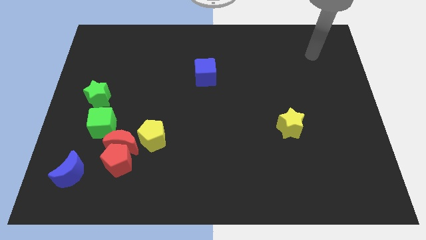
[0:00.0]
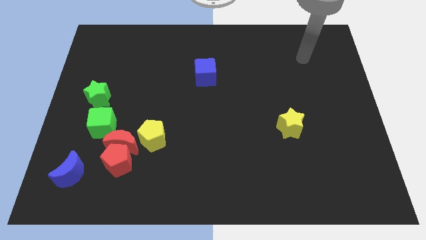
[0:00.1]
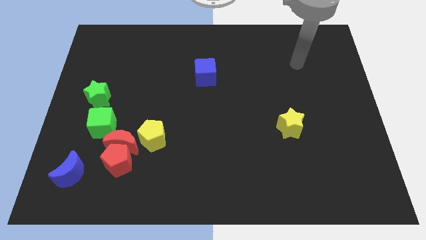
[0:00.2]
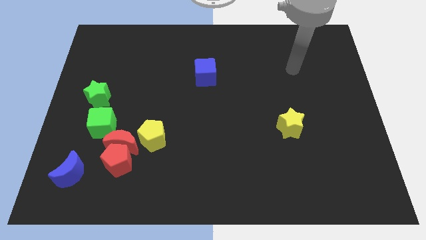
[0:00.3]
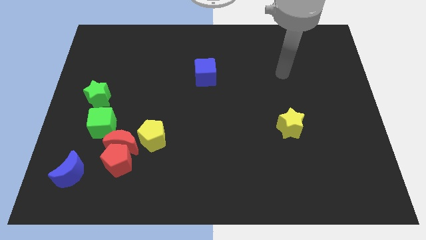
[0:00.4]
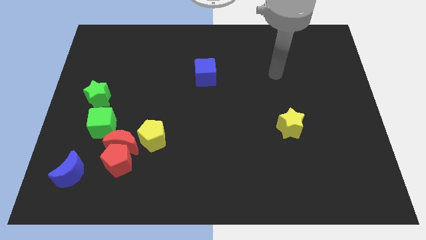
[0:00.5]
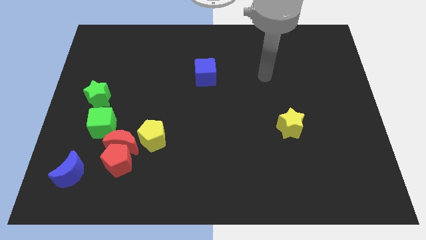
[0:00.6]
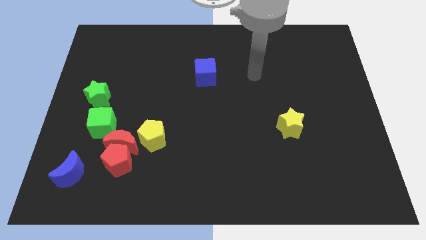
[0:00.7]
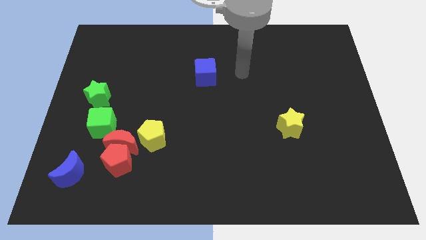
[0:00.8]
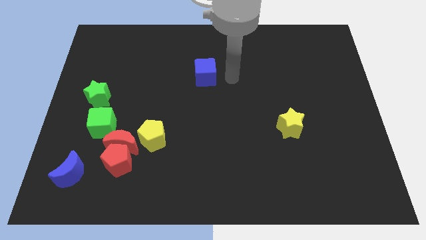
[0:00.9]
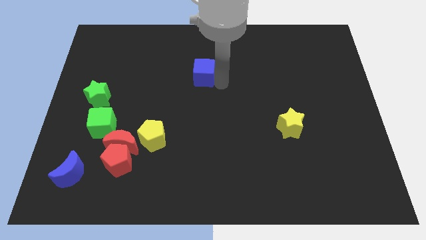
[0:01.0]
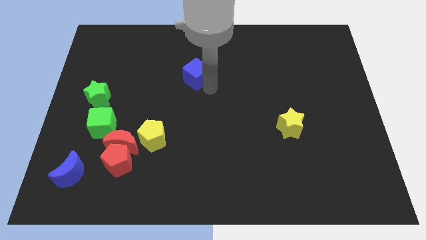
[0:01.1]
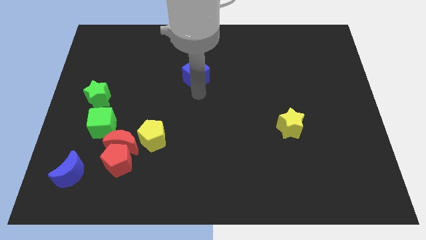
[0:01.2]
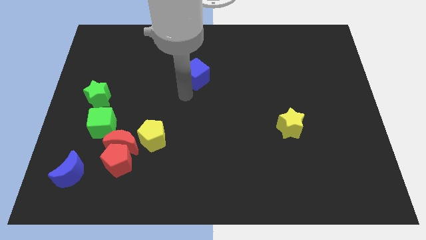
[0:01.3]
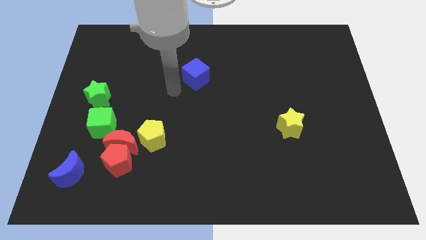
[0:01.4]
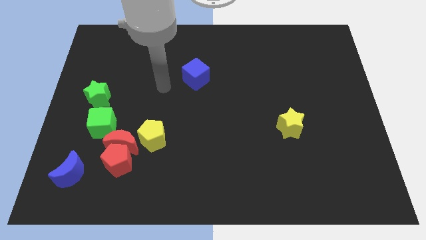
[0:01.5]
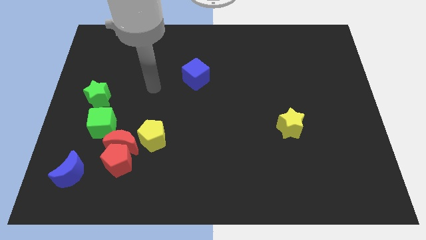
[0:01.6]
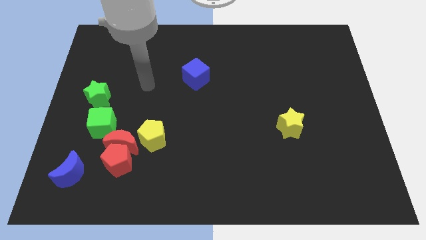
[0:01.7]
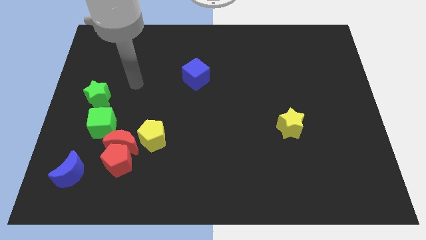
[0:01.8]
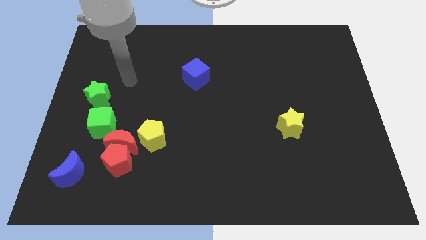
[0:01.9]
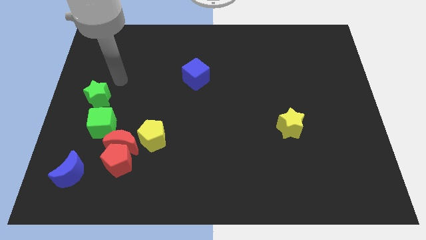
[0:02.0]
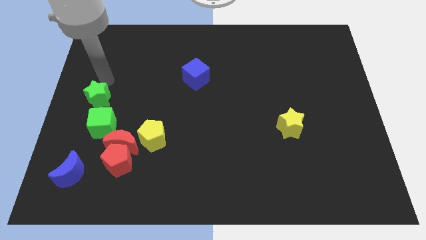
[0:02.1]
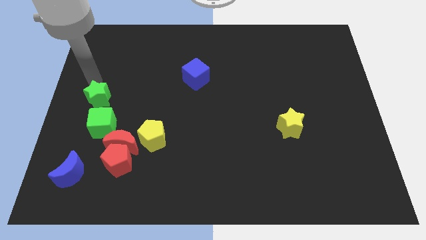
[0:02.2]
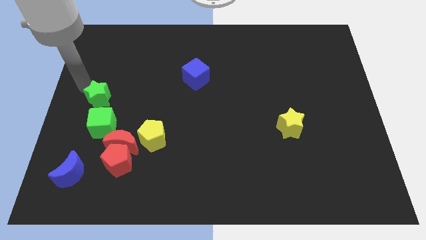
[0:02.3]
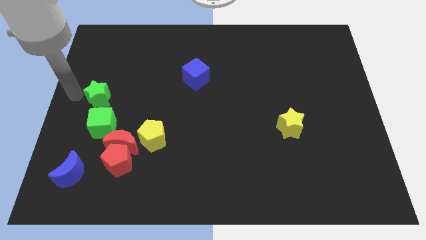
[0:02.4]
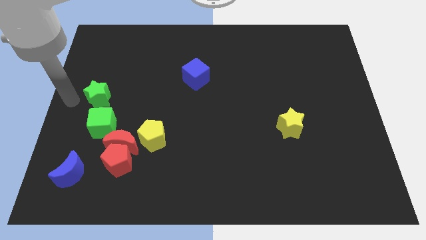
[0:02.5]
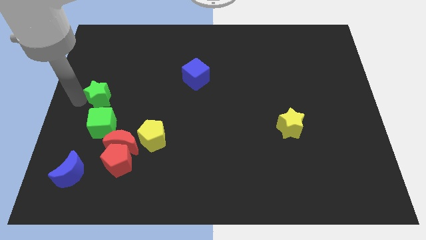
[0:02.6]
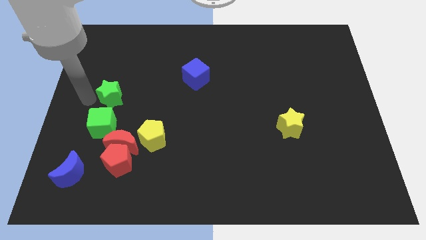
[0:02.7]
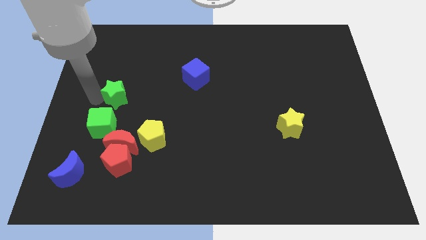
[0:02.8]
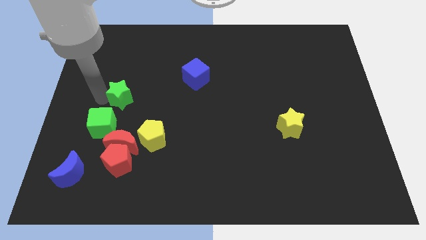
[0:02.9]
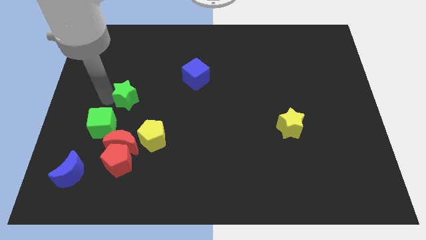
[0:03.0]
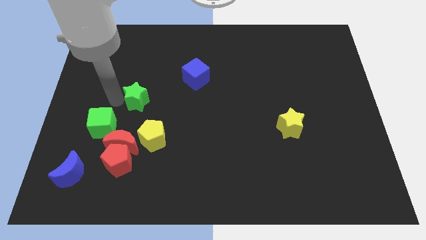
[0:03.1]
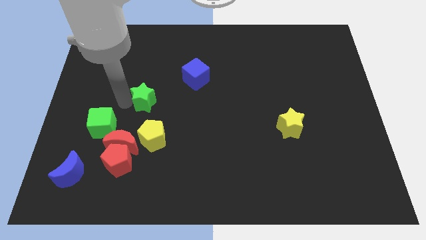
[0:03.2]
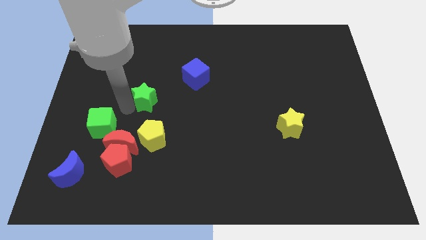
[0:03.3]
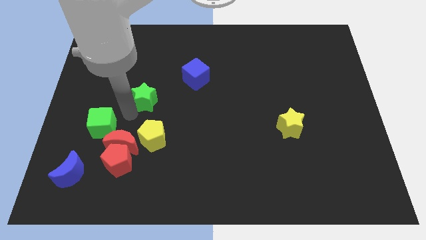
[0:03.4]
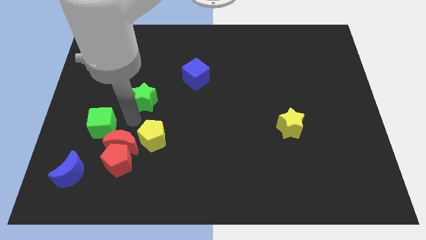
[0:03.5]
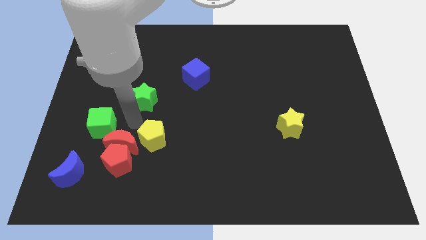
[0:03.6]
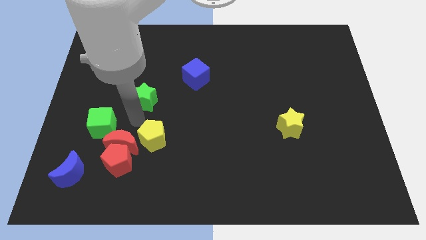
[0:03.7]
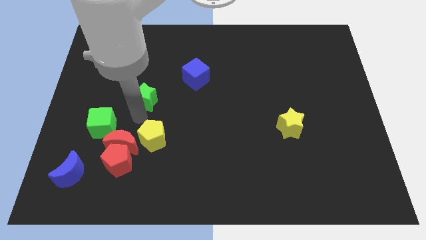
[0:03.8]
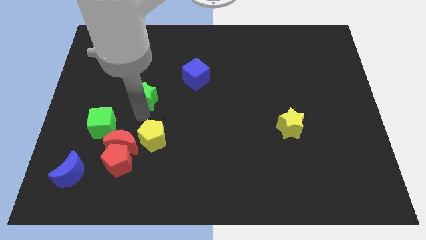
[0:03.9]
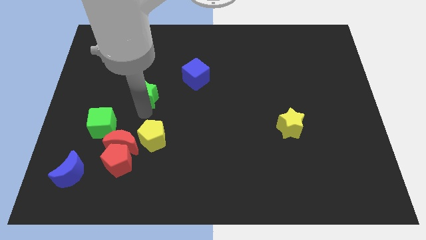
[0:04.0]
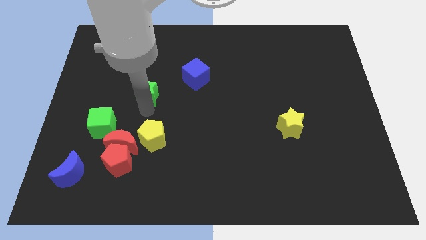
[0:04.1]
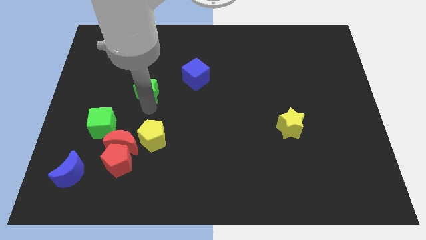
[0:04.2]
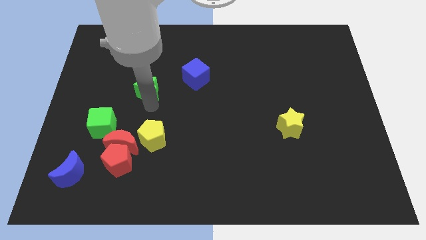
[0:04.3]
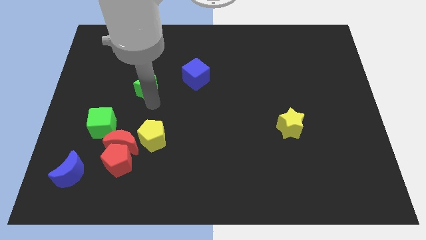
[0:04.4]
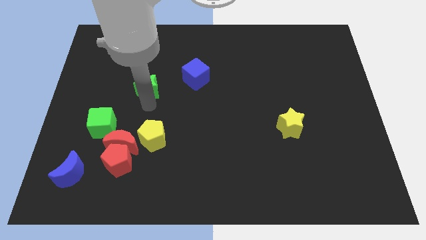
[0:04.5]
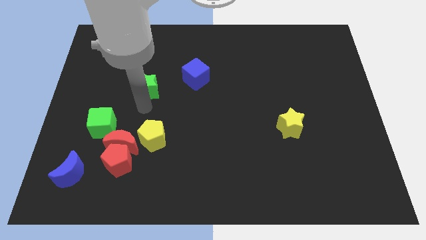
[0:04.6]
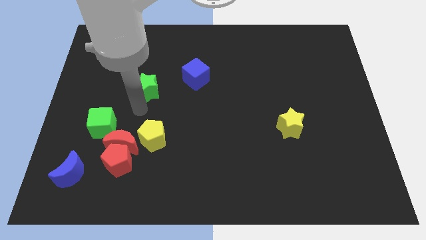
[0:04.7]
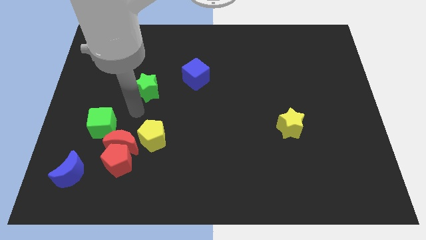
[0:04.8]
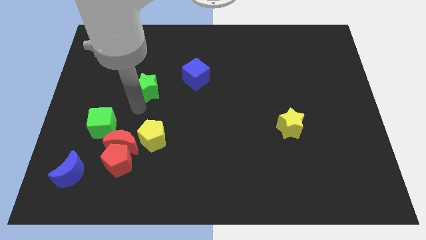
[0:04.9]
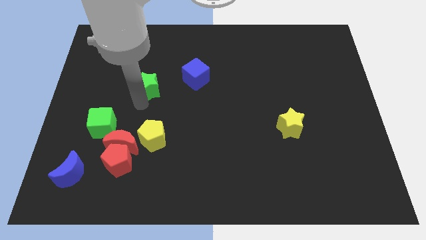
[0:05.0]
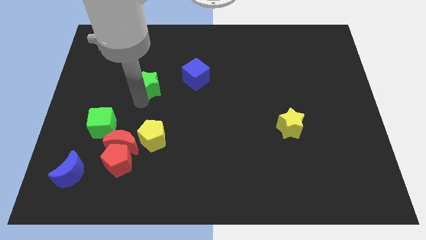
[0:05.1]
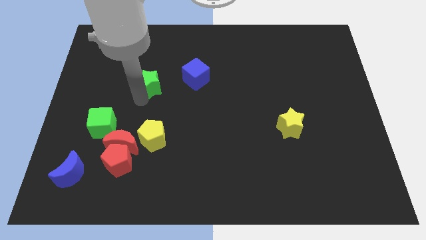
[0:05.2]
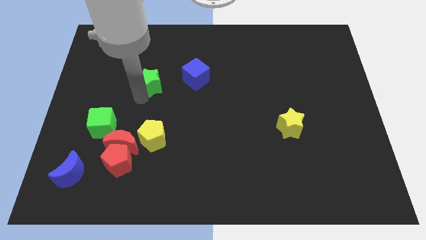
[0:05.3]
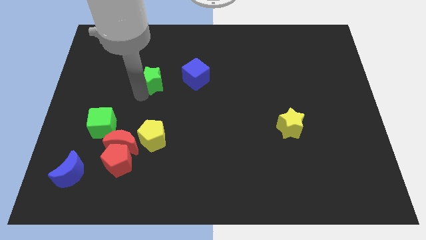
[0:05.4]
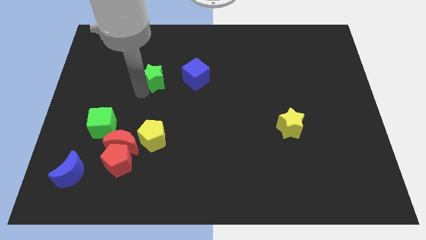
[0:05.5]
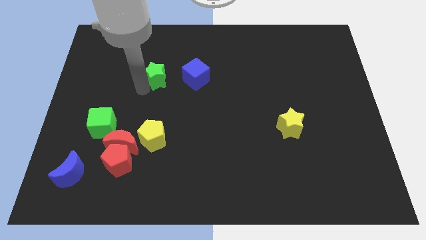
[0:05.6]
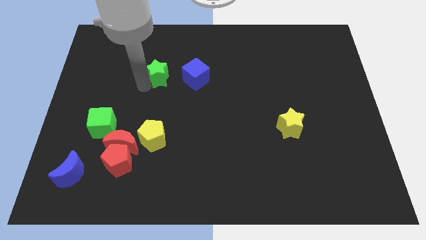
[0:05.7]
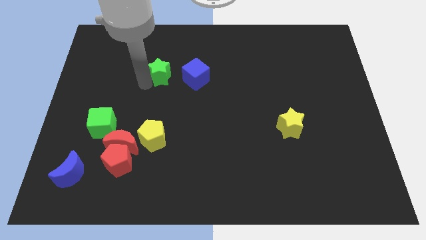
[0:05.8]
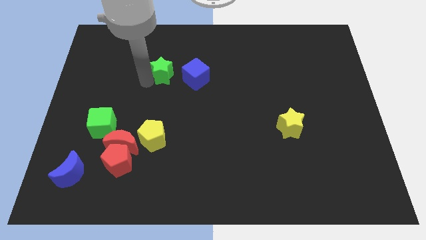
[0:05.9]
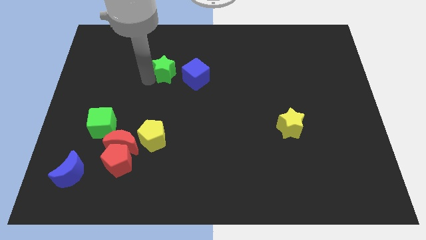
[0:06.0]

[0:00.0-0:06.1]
push the green star to the top left side of the blue cube

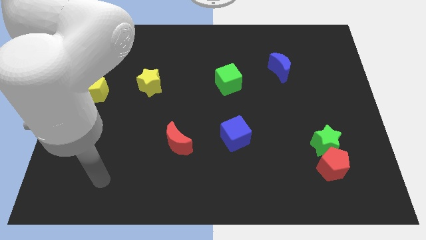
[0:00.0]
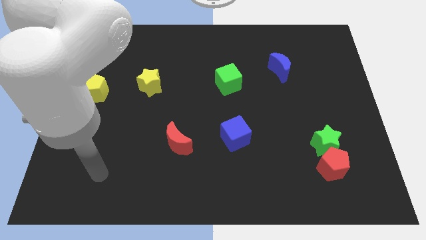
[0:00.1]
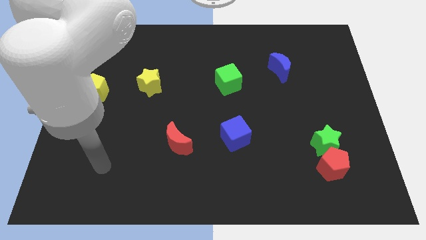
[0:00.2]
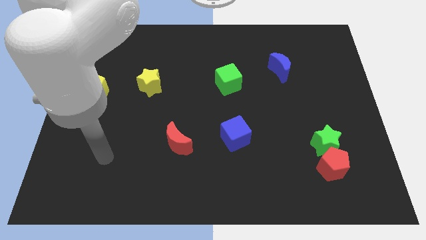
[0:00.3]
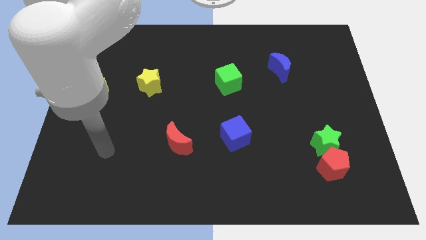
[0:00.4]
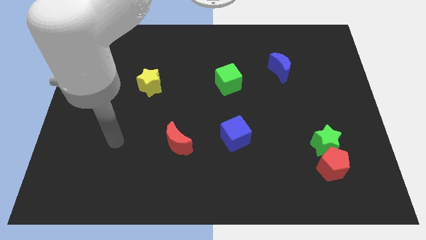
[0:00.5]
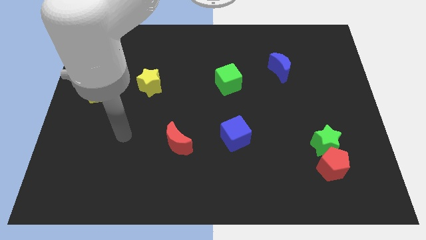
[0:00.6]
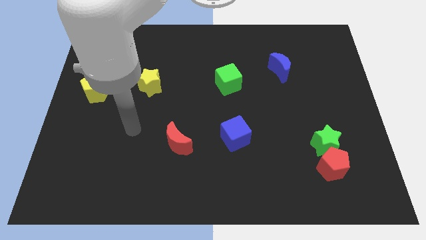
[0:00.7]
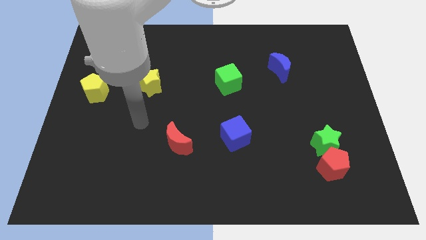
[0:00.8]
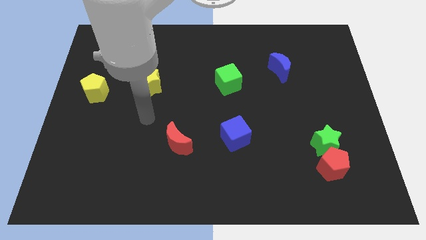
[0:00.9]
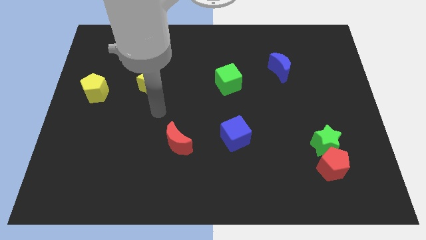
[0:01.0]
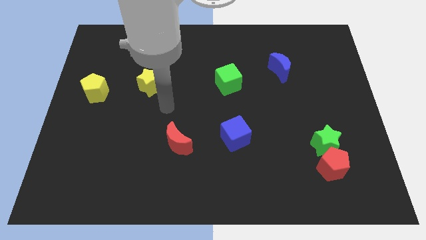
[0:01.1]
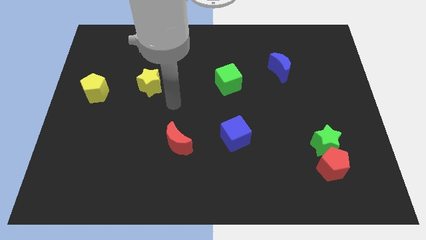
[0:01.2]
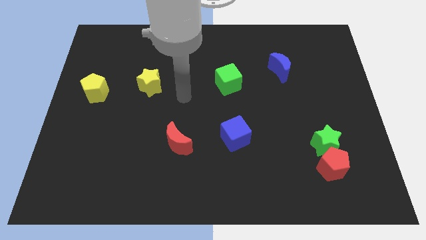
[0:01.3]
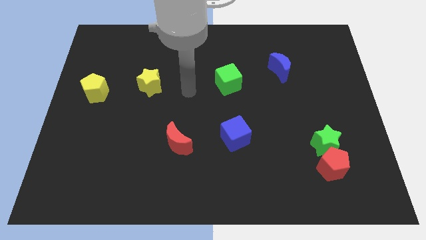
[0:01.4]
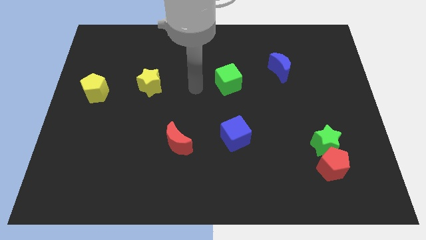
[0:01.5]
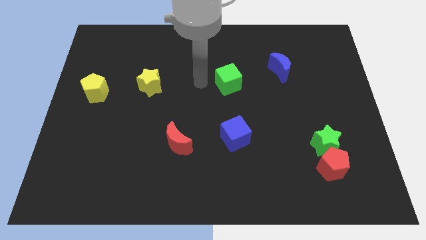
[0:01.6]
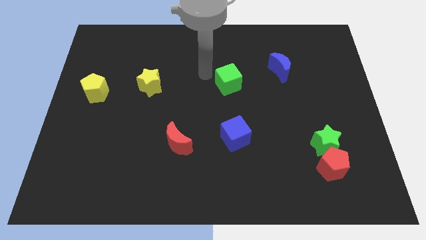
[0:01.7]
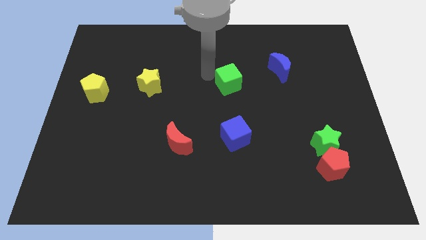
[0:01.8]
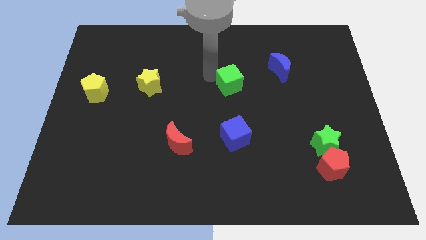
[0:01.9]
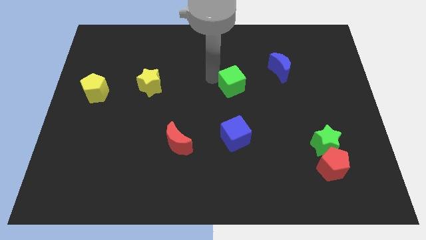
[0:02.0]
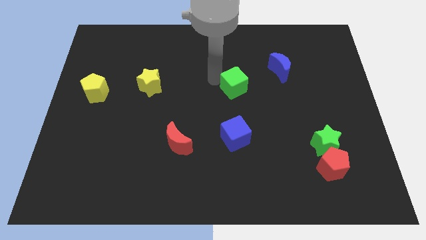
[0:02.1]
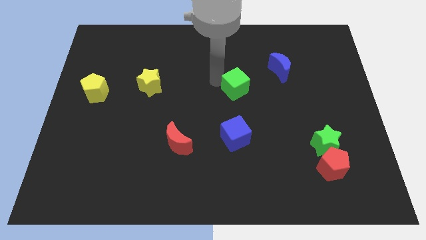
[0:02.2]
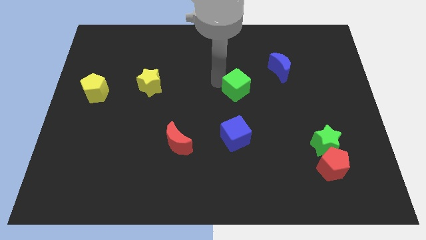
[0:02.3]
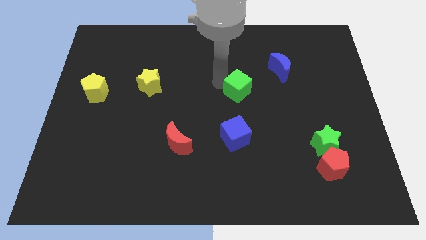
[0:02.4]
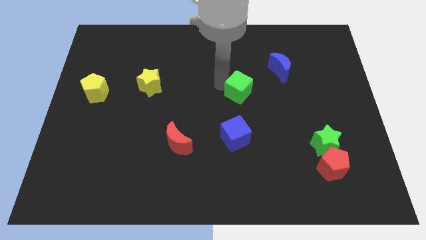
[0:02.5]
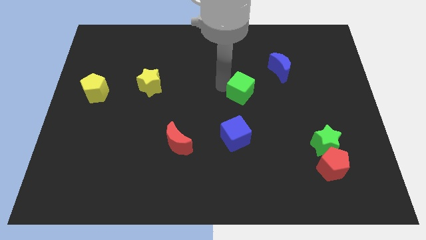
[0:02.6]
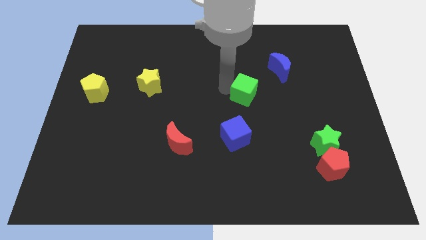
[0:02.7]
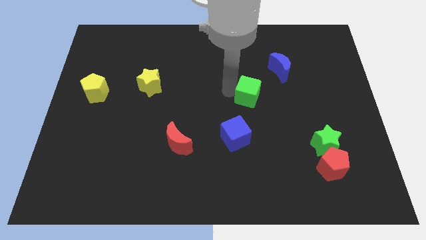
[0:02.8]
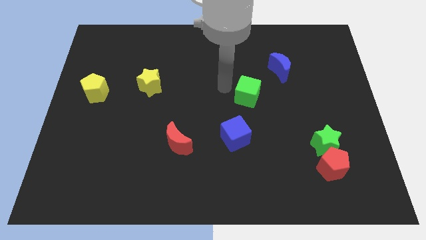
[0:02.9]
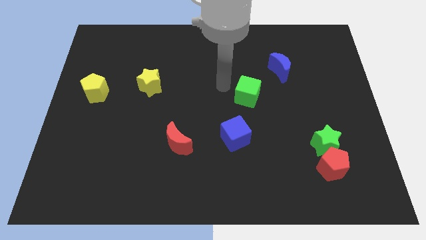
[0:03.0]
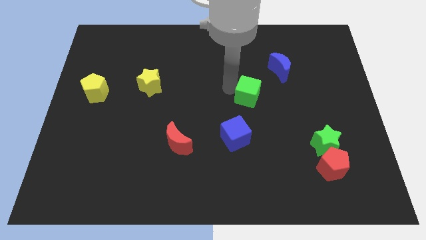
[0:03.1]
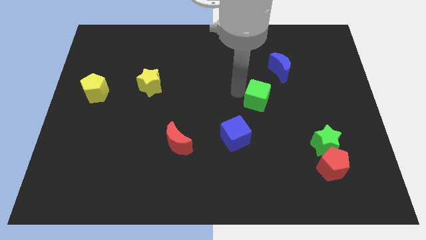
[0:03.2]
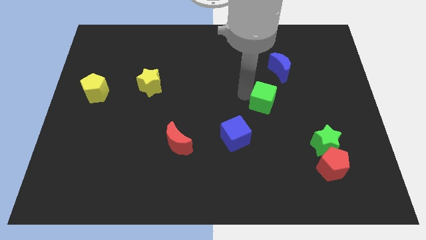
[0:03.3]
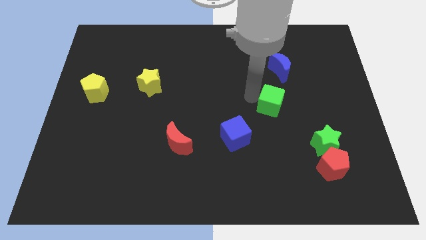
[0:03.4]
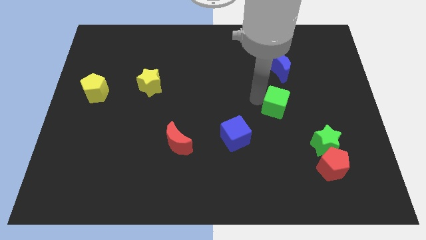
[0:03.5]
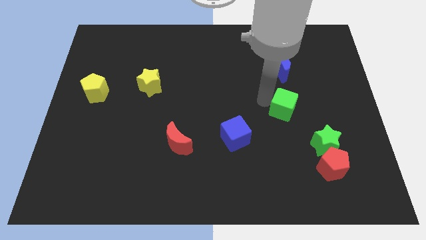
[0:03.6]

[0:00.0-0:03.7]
move the green cube diagonally up and to the left of the green star
